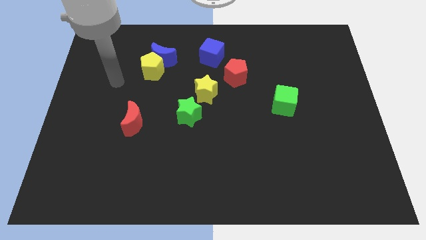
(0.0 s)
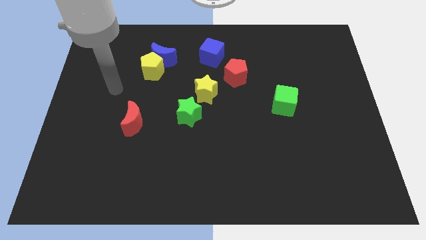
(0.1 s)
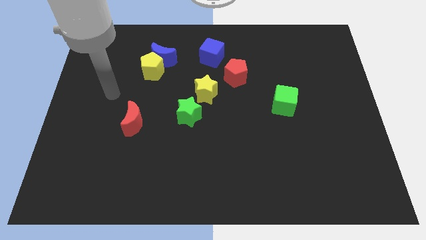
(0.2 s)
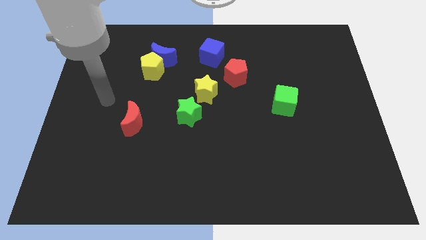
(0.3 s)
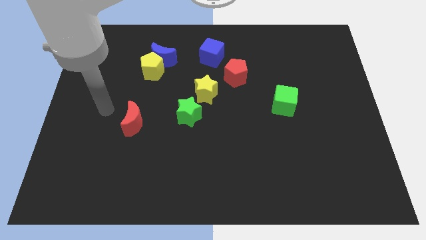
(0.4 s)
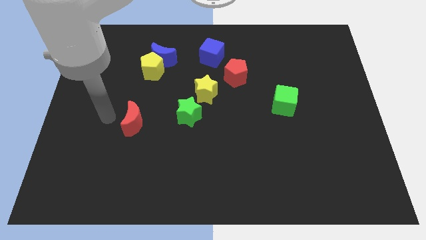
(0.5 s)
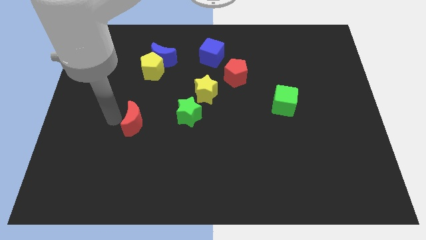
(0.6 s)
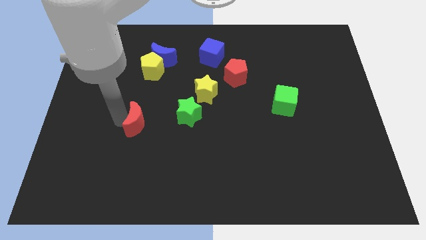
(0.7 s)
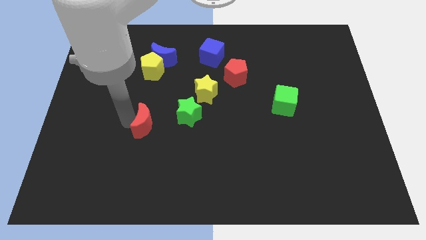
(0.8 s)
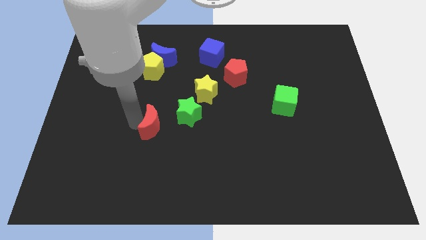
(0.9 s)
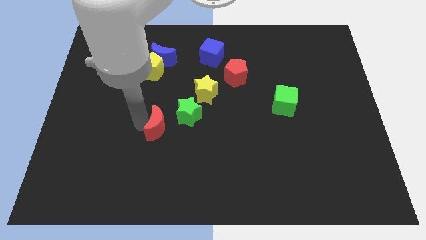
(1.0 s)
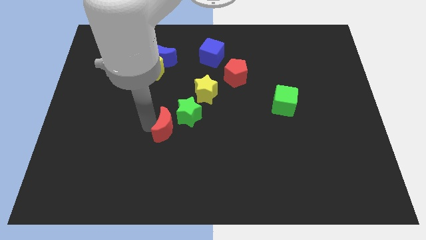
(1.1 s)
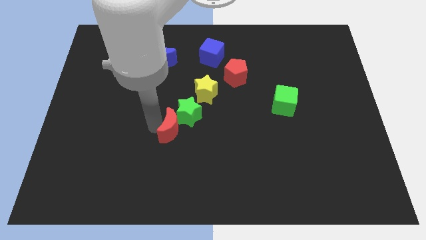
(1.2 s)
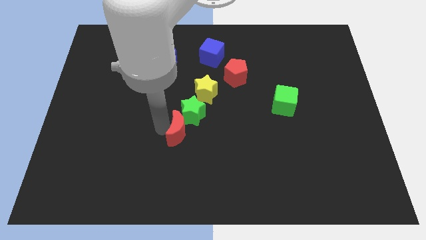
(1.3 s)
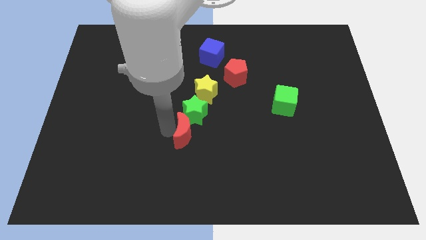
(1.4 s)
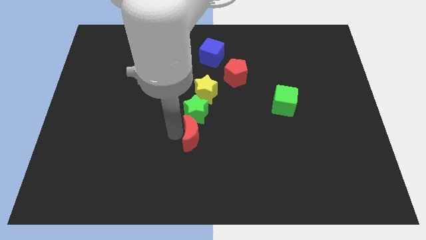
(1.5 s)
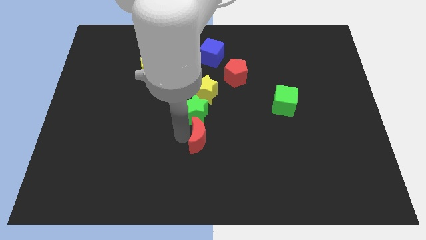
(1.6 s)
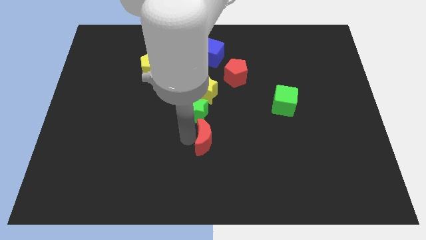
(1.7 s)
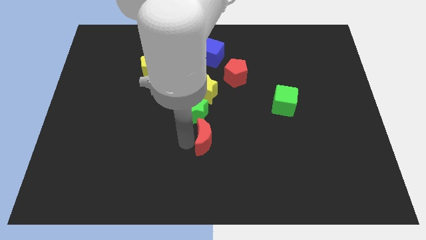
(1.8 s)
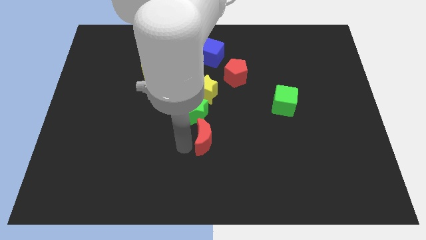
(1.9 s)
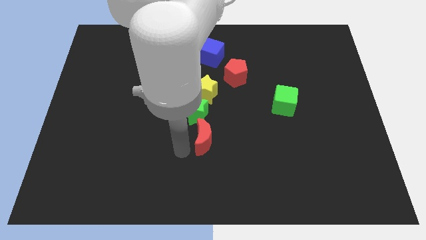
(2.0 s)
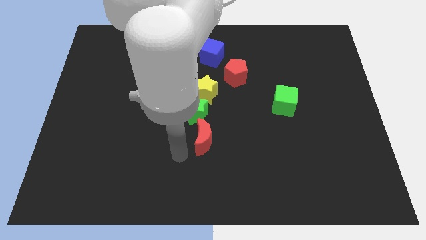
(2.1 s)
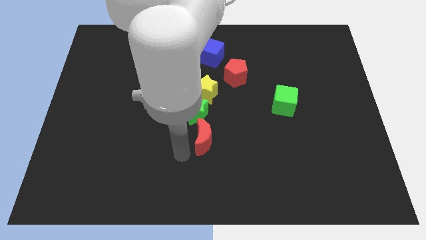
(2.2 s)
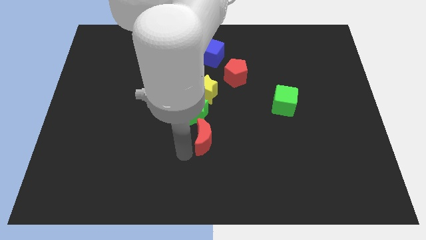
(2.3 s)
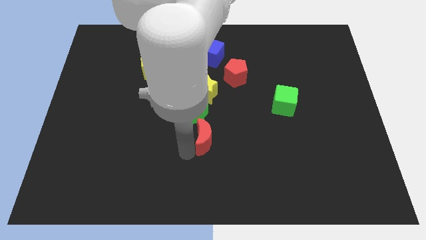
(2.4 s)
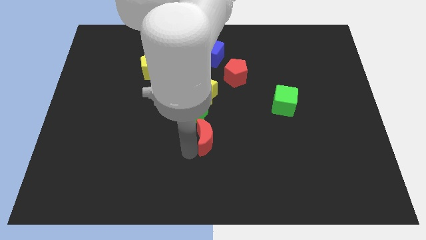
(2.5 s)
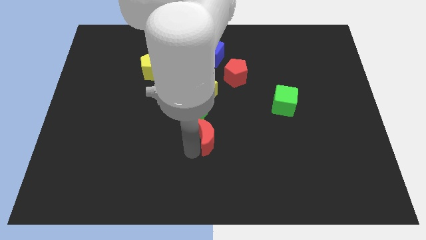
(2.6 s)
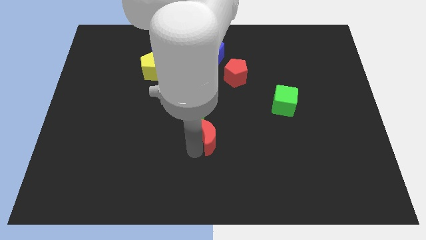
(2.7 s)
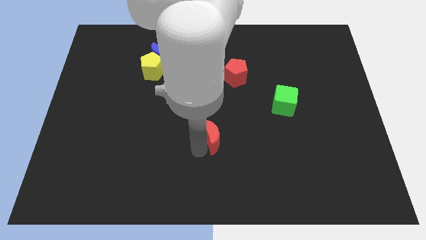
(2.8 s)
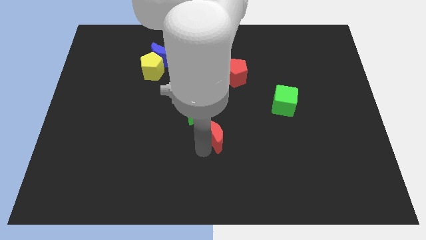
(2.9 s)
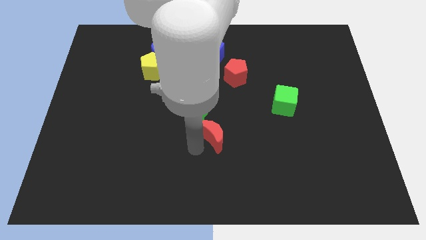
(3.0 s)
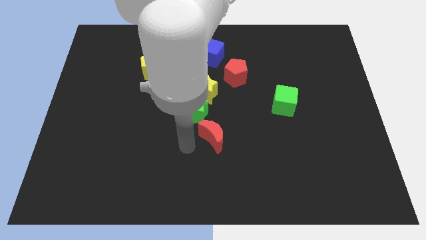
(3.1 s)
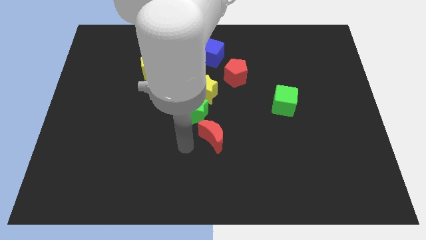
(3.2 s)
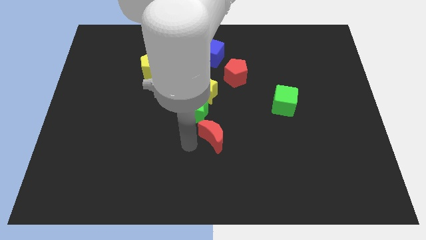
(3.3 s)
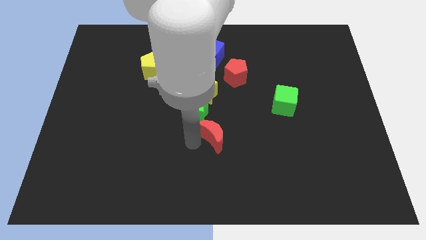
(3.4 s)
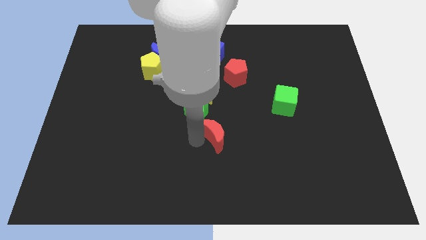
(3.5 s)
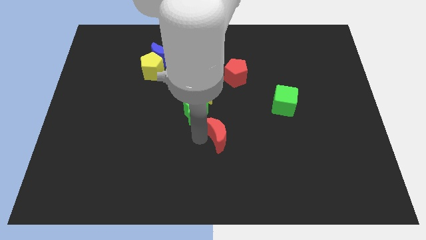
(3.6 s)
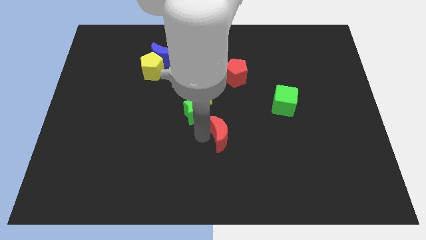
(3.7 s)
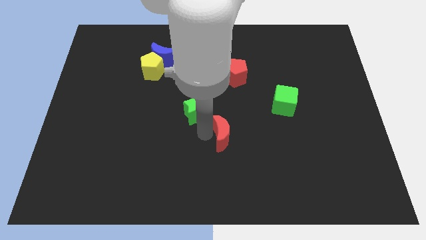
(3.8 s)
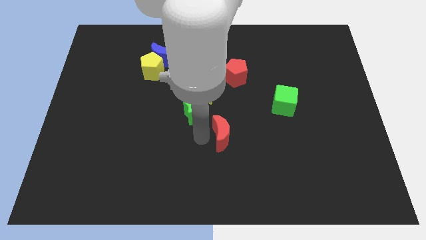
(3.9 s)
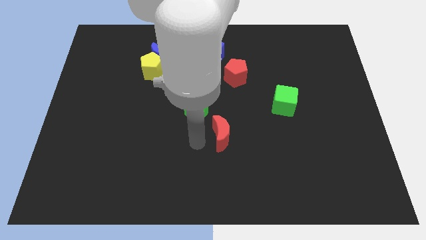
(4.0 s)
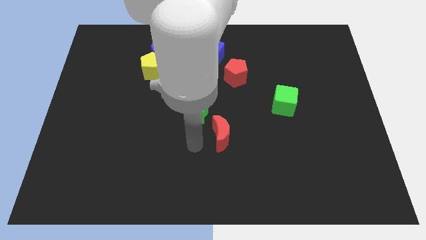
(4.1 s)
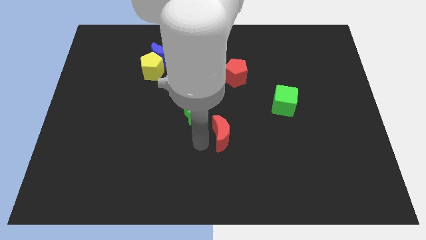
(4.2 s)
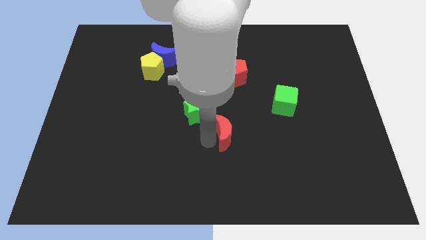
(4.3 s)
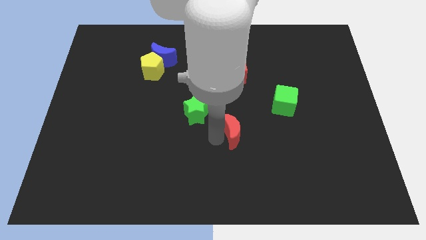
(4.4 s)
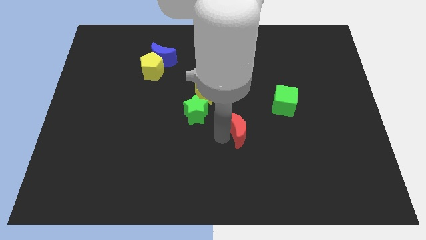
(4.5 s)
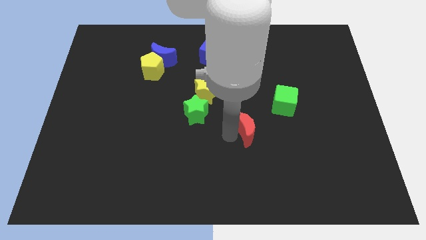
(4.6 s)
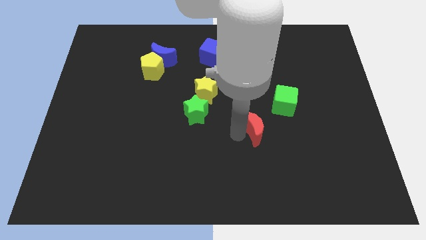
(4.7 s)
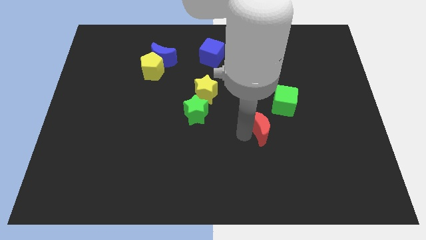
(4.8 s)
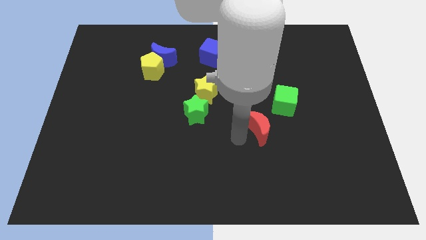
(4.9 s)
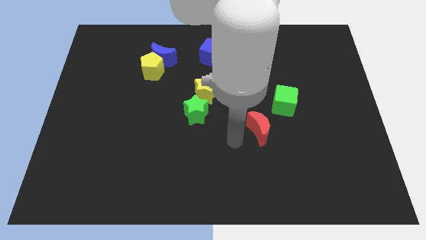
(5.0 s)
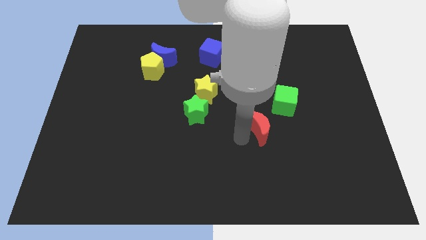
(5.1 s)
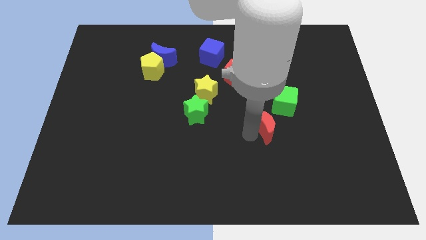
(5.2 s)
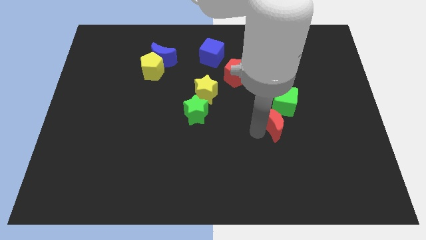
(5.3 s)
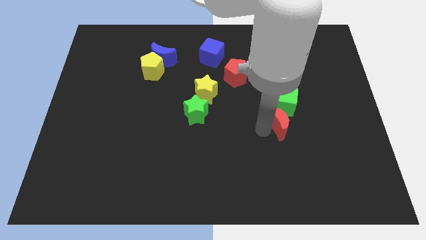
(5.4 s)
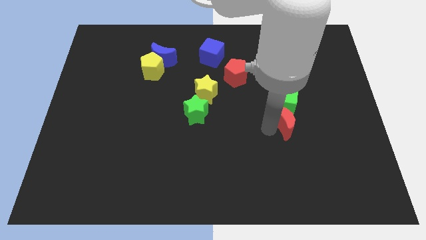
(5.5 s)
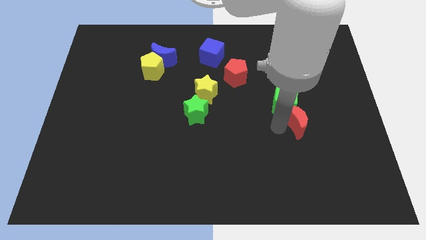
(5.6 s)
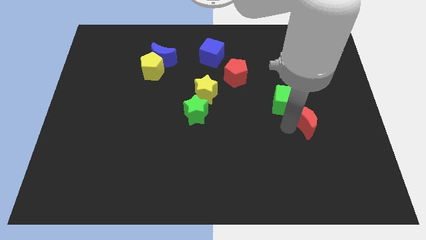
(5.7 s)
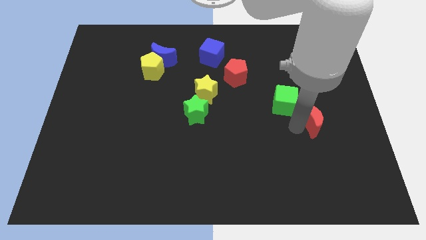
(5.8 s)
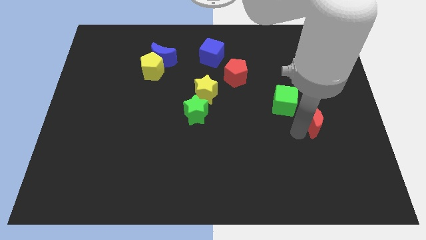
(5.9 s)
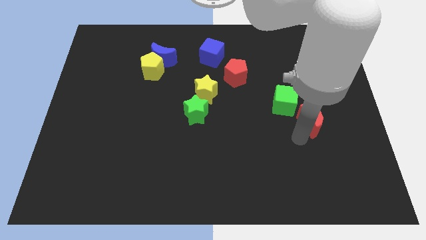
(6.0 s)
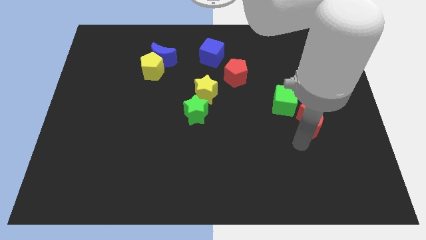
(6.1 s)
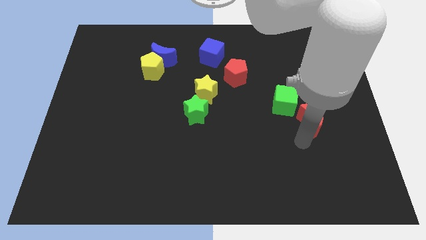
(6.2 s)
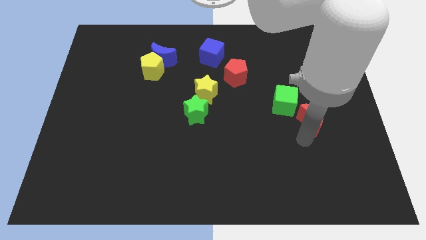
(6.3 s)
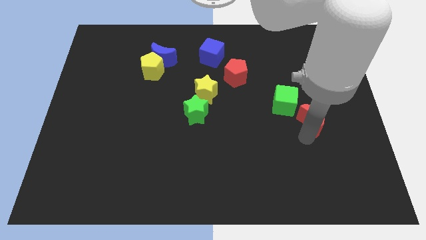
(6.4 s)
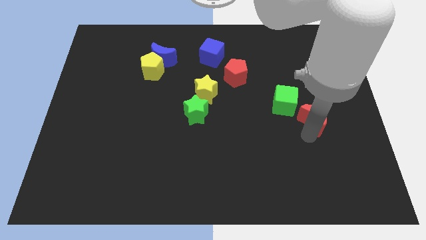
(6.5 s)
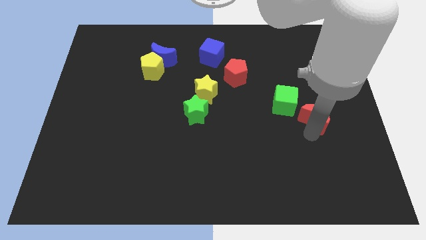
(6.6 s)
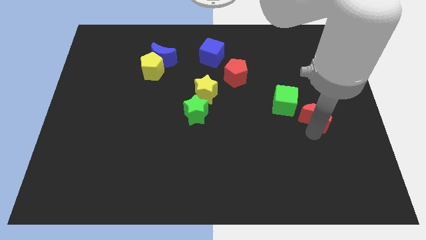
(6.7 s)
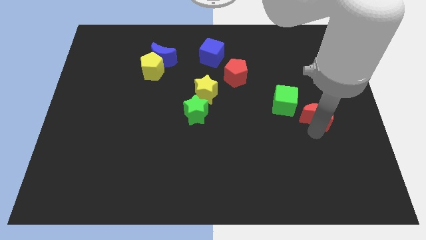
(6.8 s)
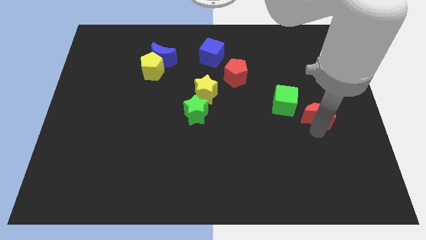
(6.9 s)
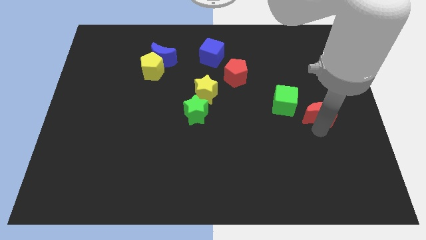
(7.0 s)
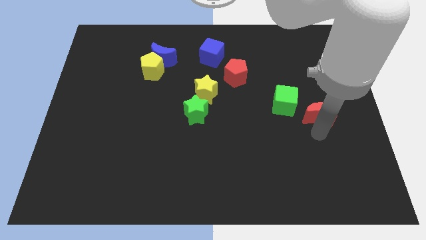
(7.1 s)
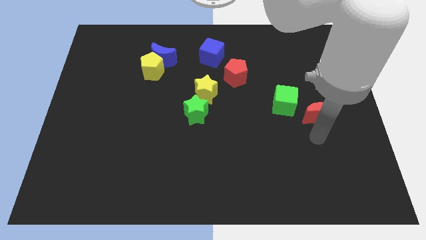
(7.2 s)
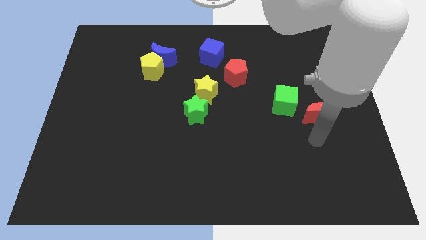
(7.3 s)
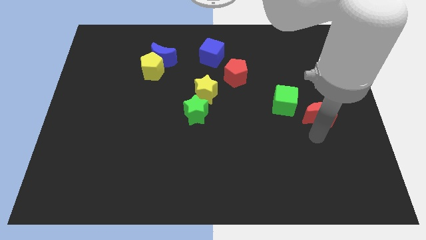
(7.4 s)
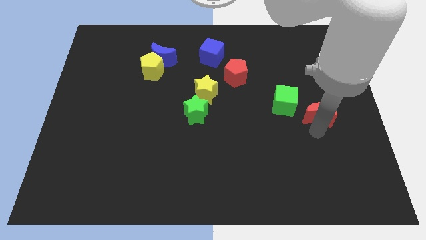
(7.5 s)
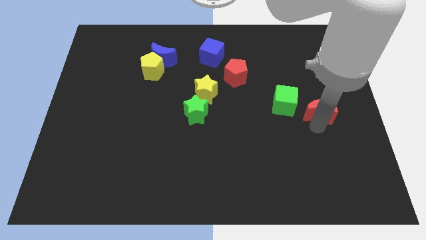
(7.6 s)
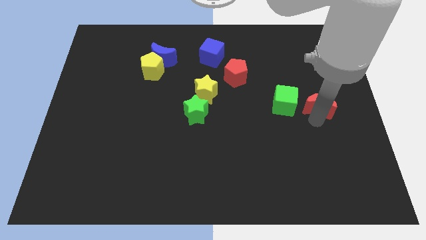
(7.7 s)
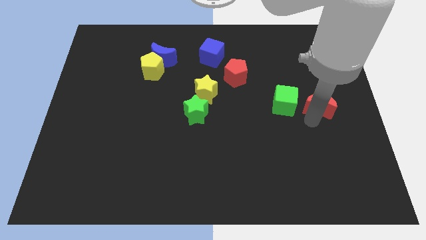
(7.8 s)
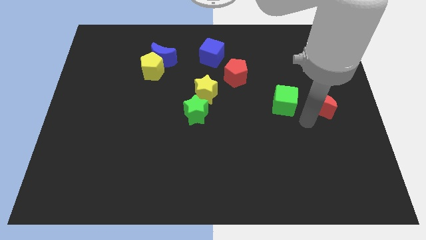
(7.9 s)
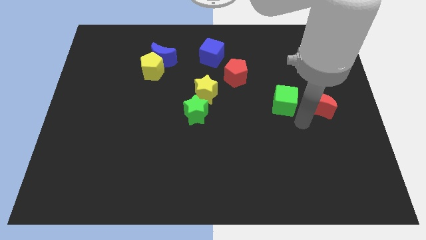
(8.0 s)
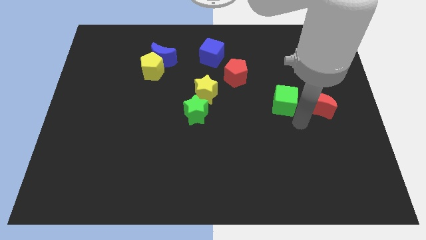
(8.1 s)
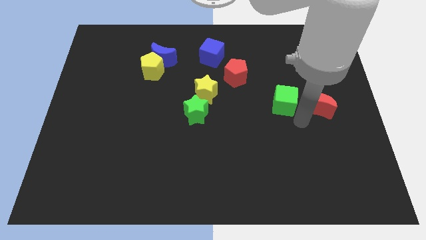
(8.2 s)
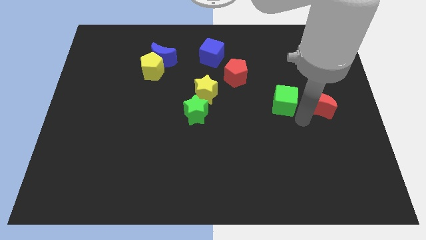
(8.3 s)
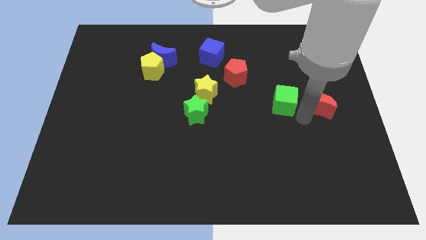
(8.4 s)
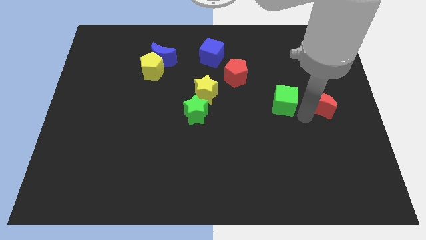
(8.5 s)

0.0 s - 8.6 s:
slide the red moon to the center right
